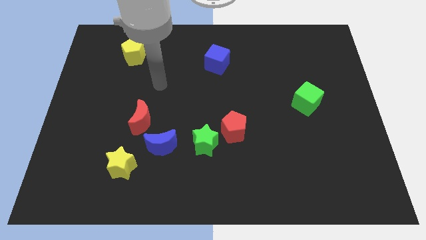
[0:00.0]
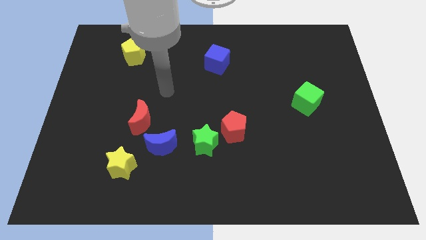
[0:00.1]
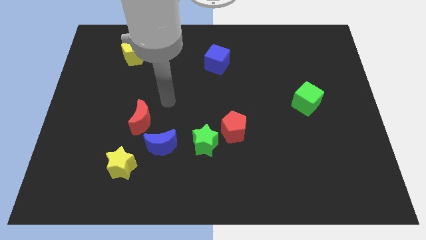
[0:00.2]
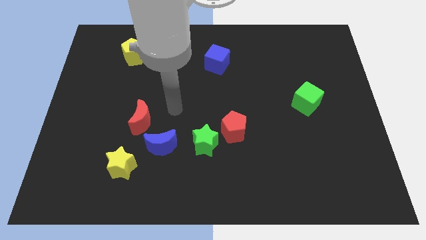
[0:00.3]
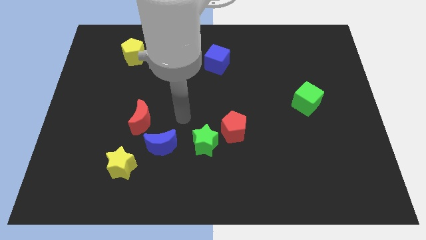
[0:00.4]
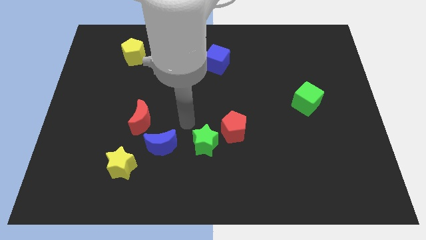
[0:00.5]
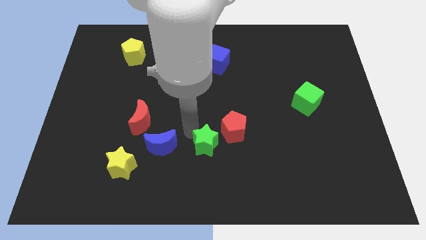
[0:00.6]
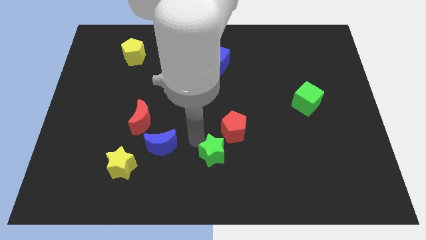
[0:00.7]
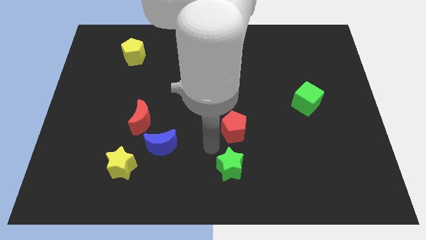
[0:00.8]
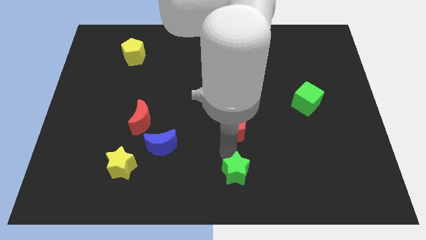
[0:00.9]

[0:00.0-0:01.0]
move the red pentagon away from the green star

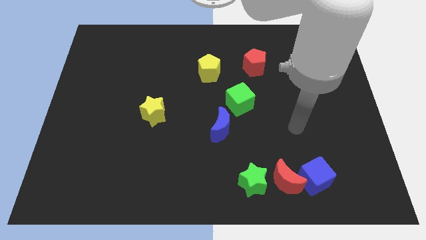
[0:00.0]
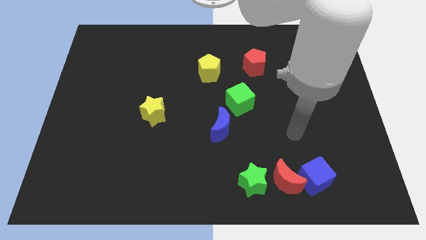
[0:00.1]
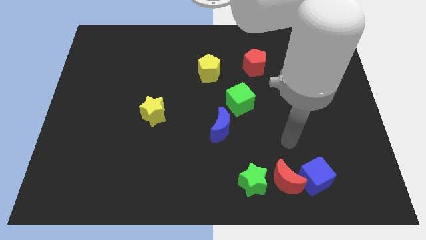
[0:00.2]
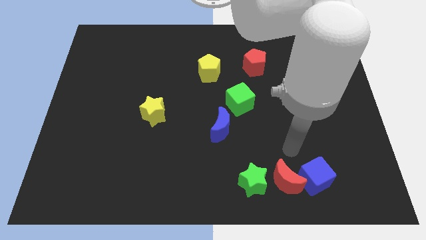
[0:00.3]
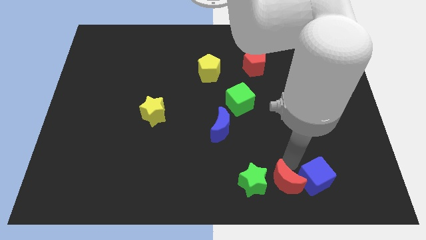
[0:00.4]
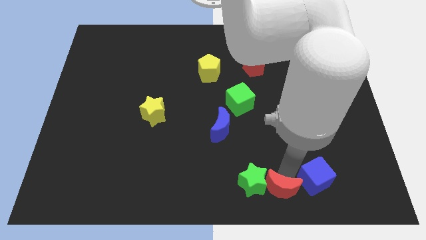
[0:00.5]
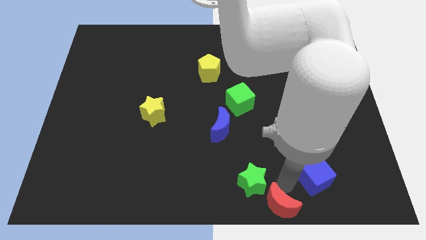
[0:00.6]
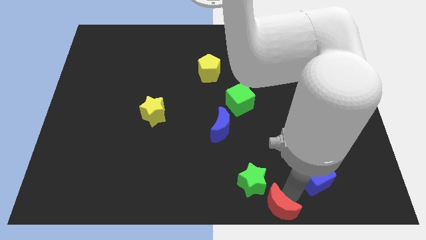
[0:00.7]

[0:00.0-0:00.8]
move the blue cube away from the red moon

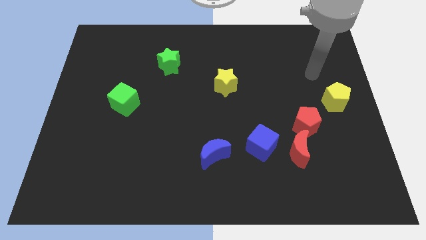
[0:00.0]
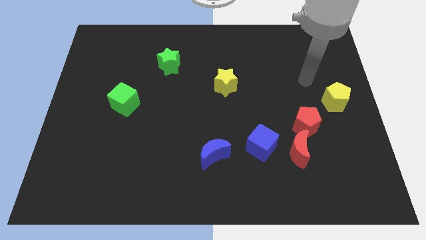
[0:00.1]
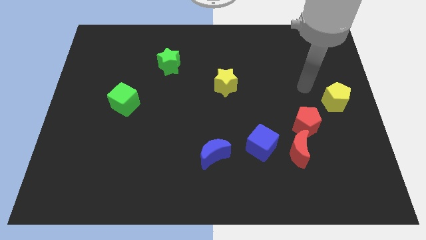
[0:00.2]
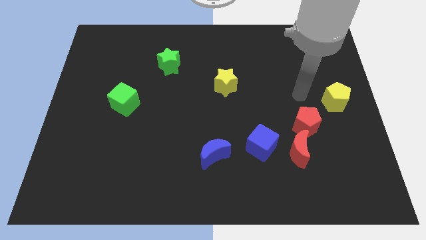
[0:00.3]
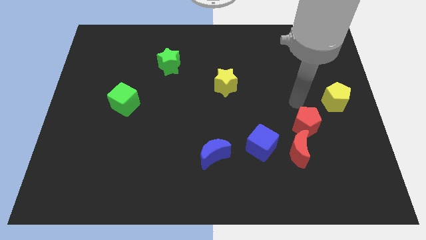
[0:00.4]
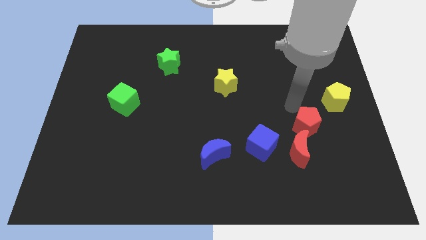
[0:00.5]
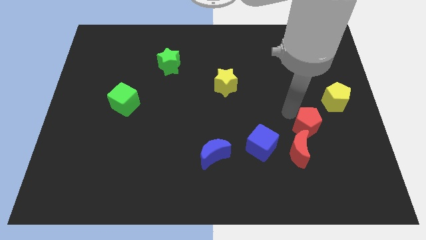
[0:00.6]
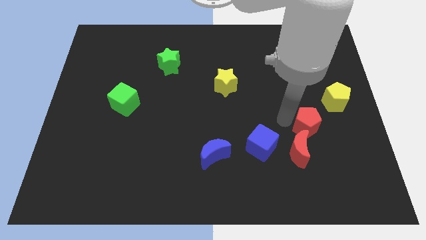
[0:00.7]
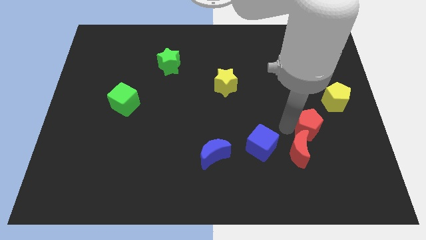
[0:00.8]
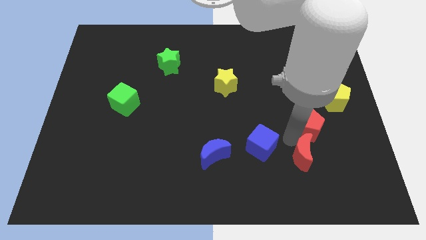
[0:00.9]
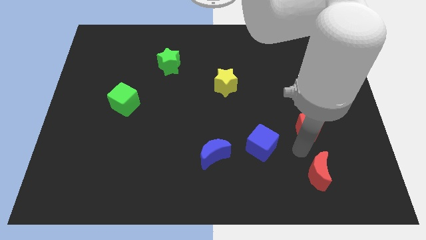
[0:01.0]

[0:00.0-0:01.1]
move the red pentagon away from the red moon

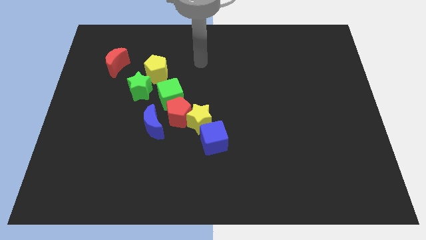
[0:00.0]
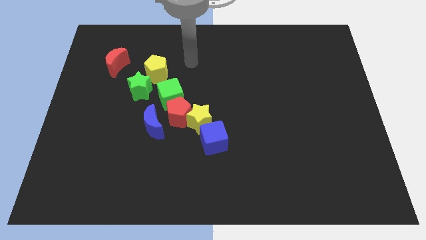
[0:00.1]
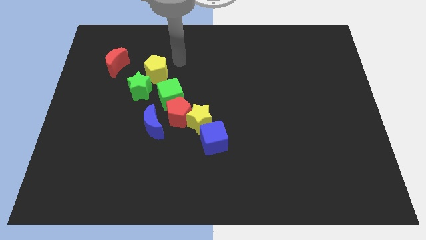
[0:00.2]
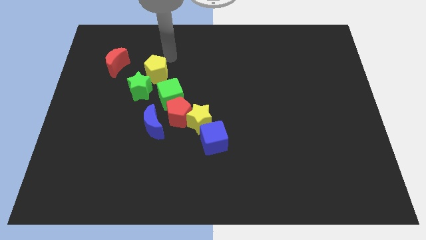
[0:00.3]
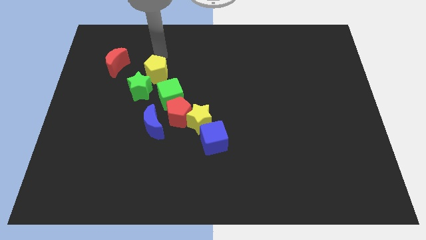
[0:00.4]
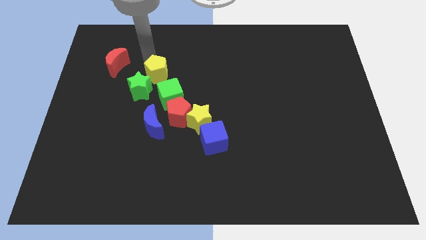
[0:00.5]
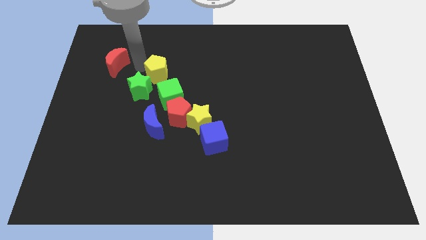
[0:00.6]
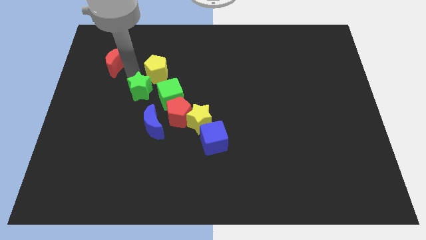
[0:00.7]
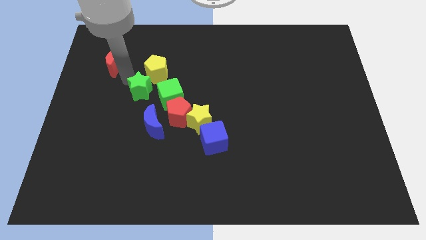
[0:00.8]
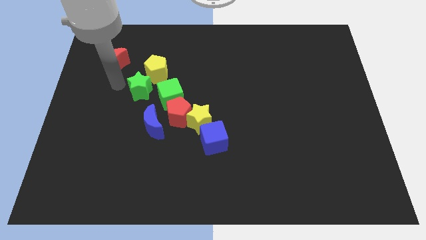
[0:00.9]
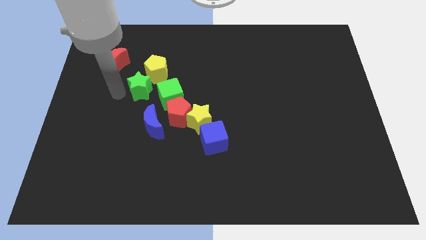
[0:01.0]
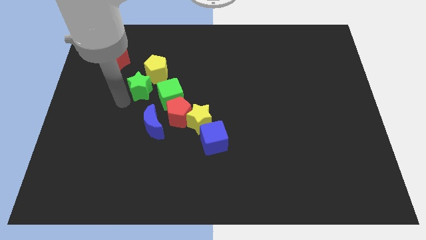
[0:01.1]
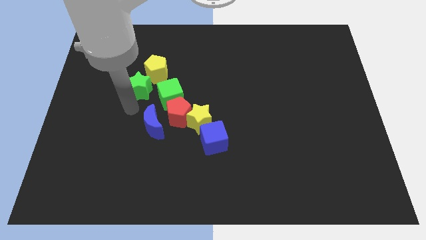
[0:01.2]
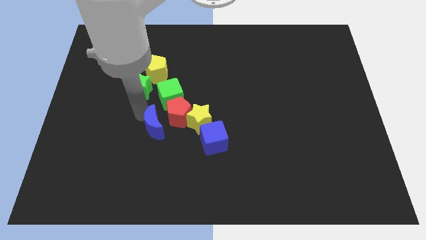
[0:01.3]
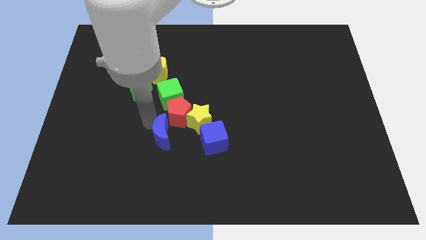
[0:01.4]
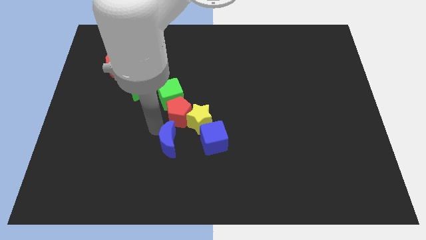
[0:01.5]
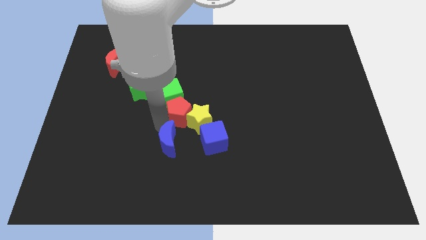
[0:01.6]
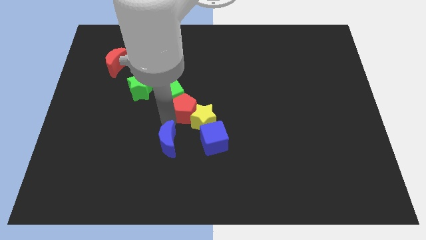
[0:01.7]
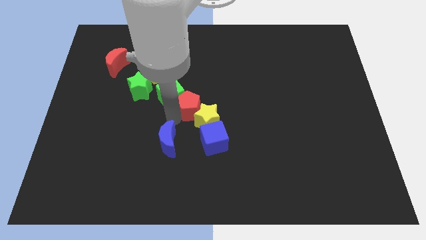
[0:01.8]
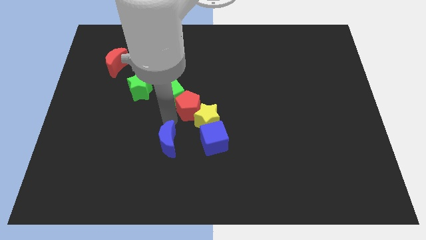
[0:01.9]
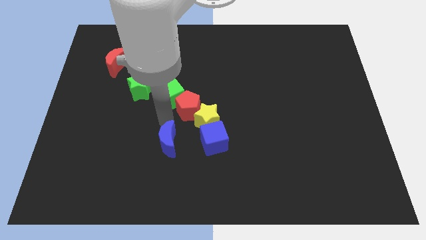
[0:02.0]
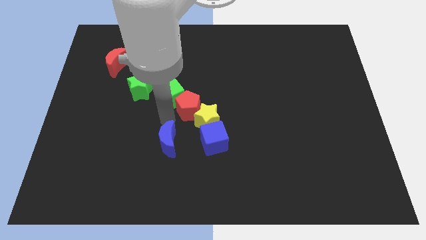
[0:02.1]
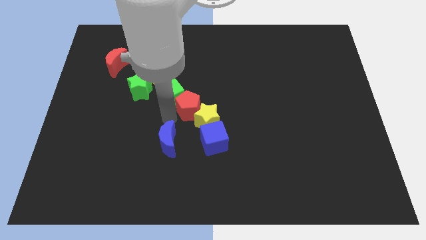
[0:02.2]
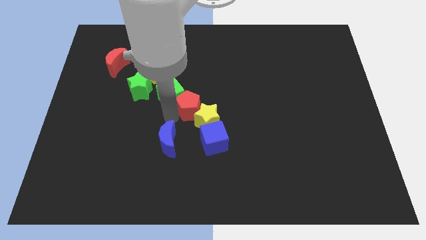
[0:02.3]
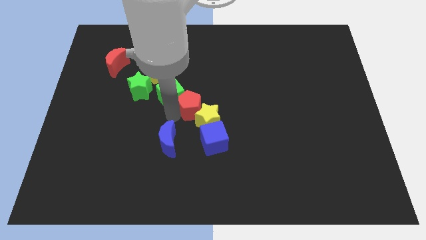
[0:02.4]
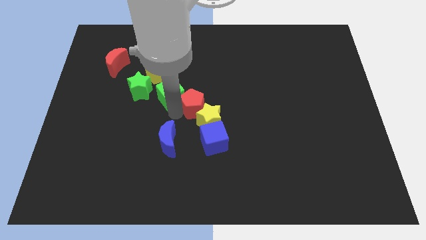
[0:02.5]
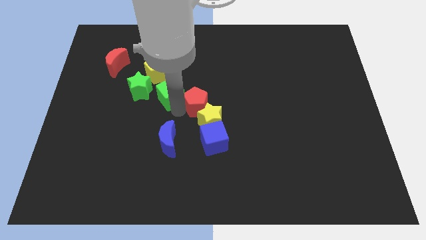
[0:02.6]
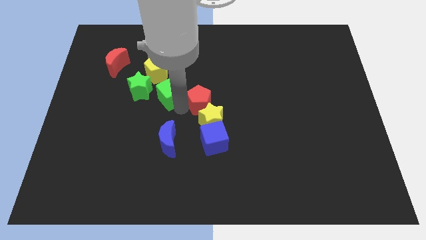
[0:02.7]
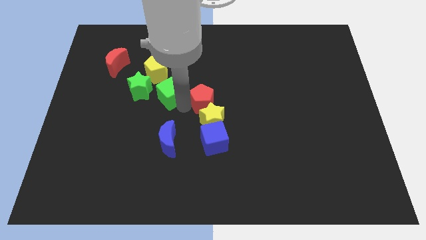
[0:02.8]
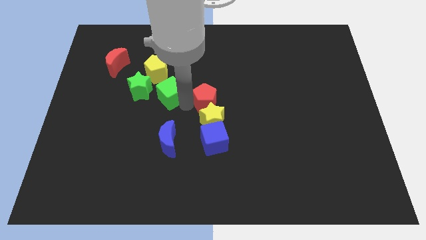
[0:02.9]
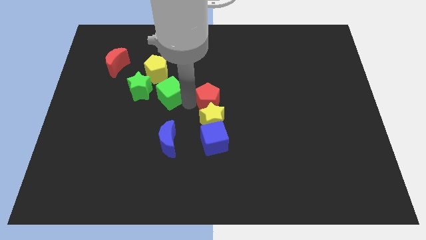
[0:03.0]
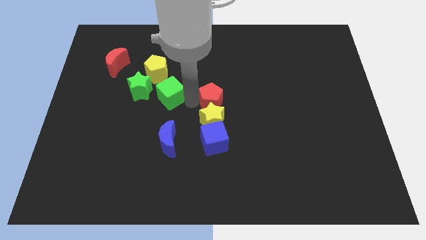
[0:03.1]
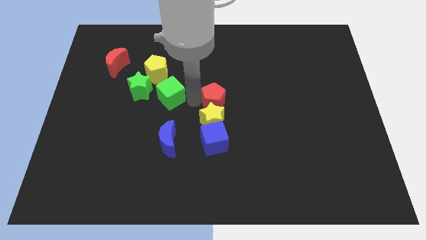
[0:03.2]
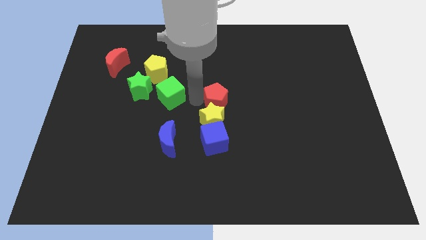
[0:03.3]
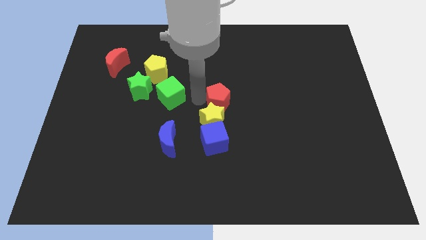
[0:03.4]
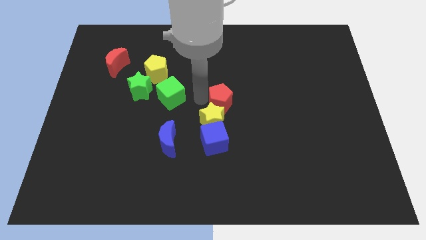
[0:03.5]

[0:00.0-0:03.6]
pull the red pentagon apart from the group

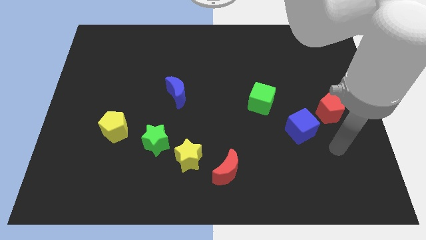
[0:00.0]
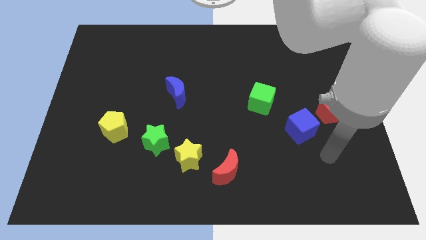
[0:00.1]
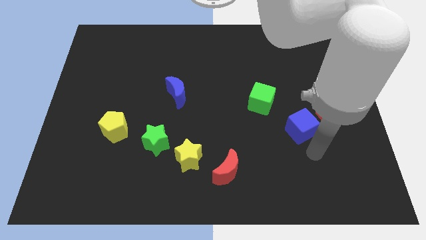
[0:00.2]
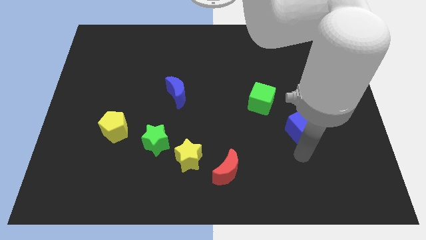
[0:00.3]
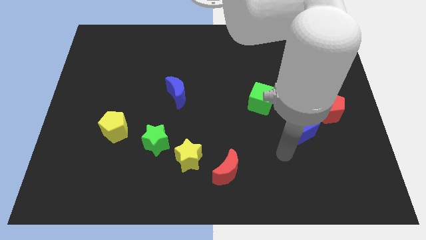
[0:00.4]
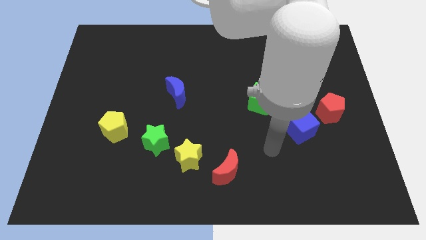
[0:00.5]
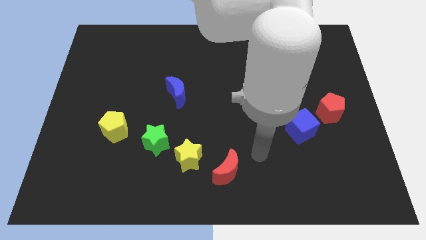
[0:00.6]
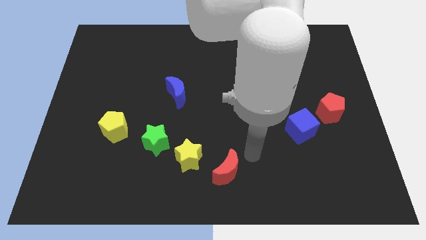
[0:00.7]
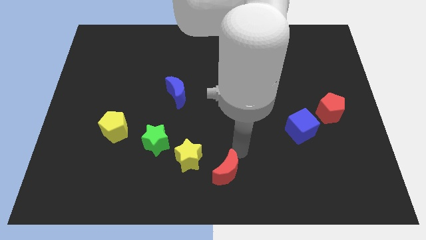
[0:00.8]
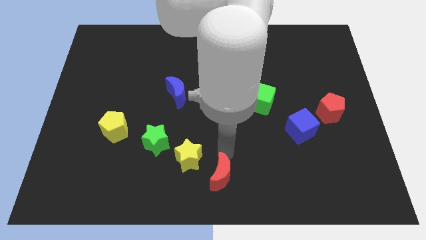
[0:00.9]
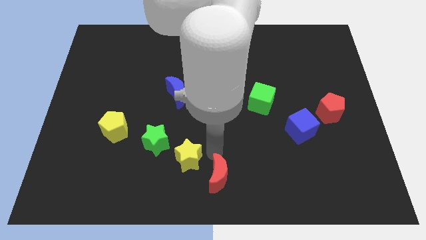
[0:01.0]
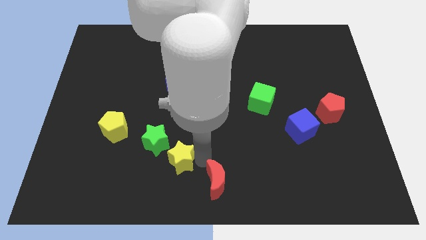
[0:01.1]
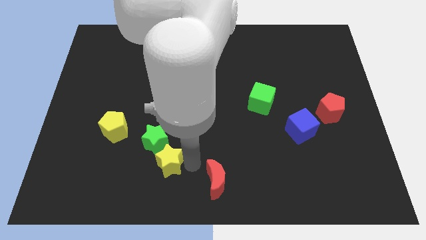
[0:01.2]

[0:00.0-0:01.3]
pull the red moon apart from the yellow star

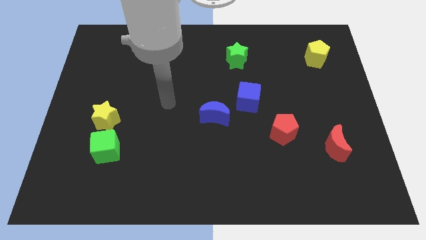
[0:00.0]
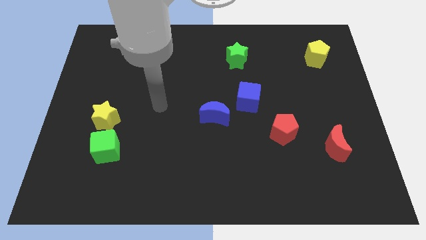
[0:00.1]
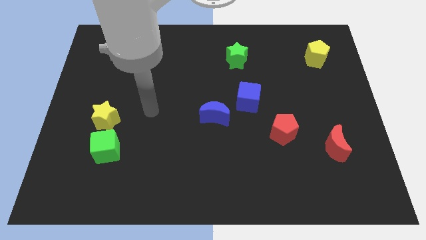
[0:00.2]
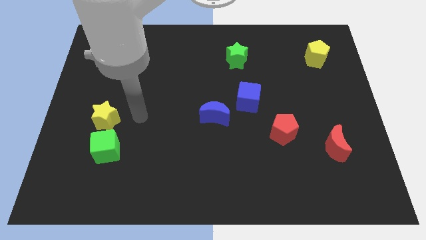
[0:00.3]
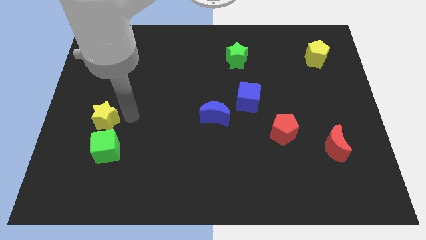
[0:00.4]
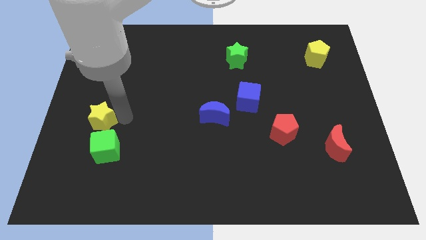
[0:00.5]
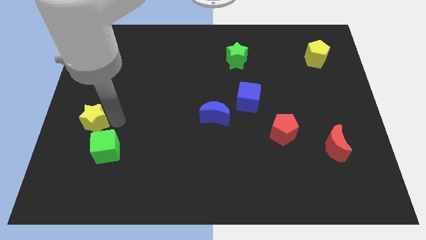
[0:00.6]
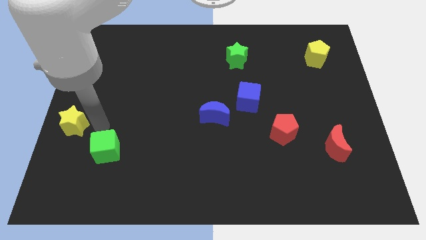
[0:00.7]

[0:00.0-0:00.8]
move the green cube away from the yellow star

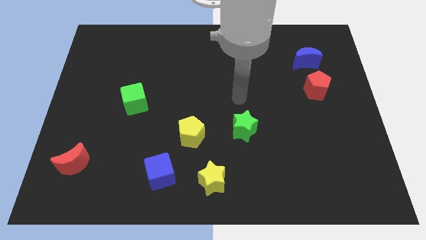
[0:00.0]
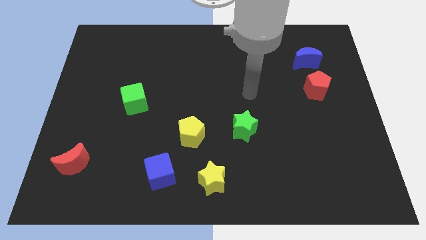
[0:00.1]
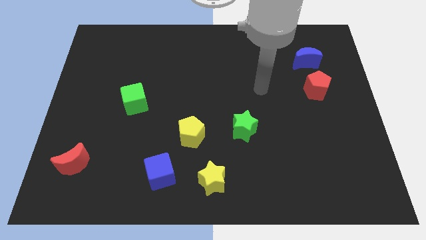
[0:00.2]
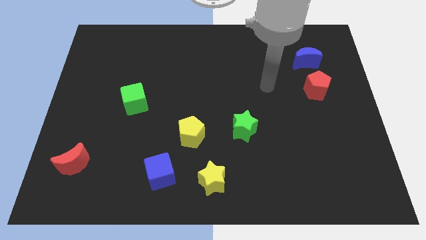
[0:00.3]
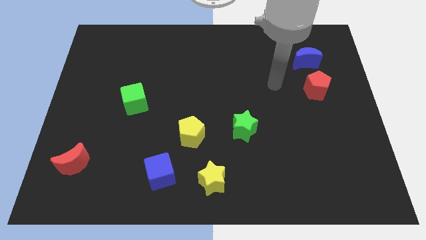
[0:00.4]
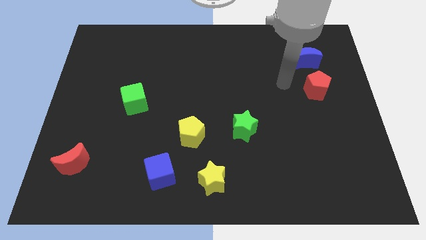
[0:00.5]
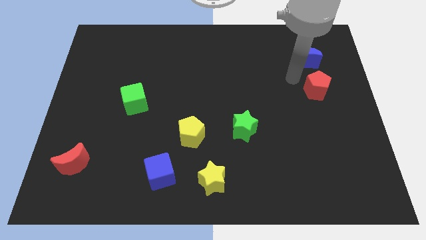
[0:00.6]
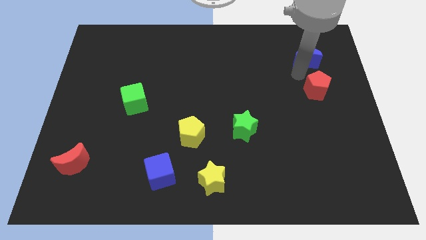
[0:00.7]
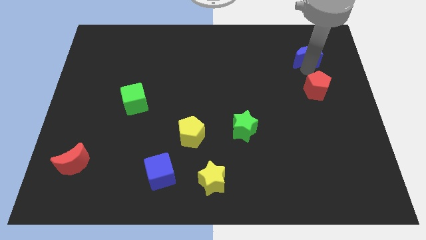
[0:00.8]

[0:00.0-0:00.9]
separate the red pentagon from the blue moon
